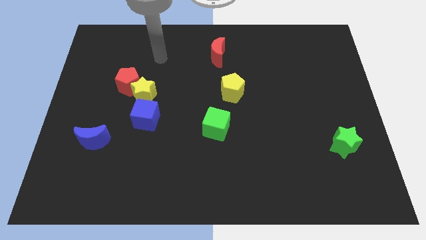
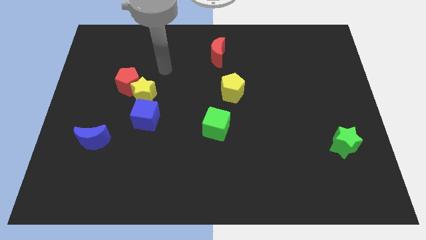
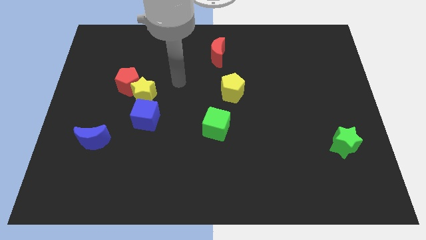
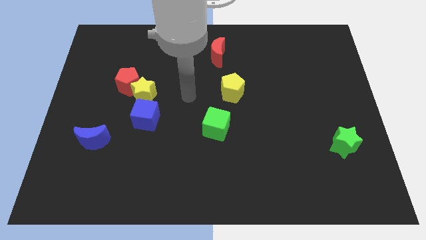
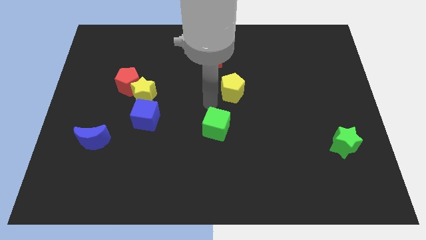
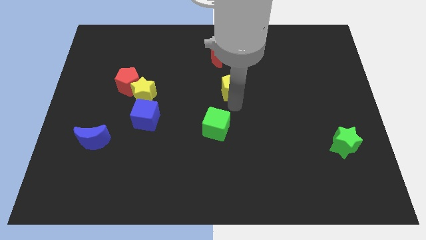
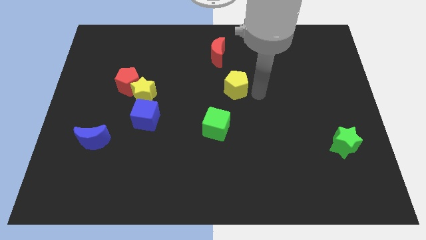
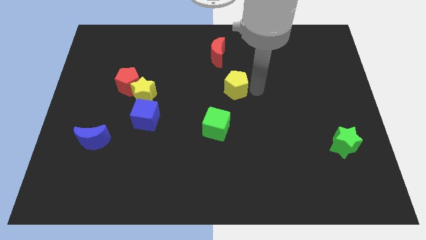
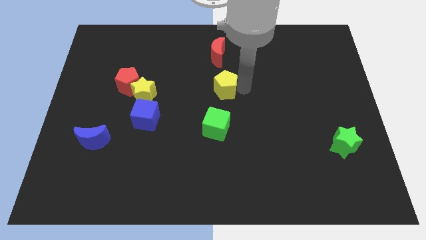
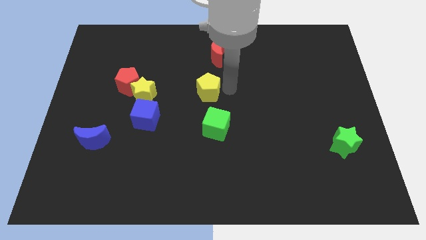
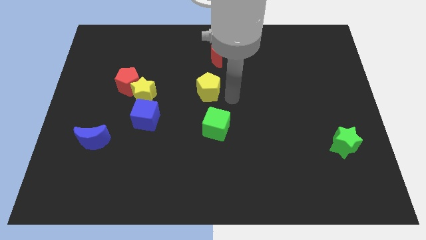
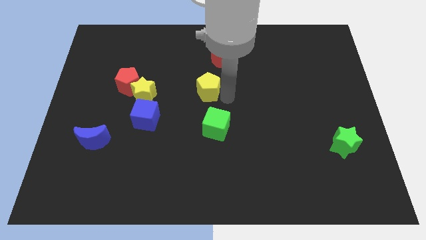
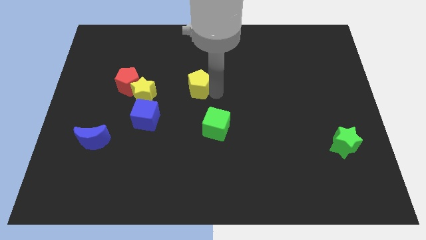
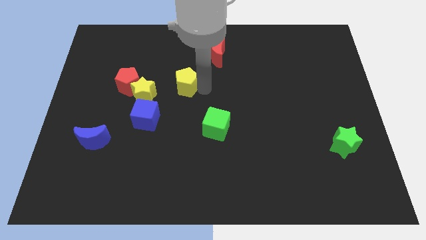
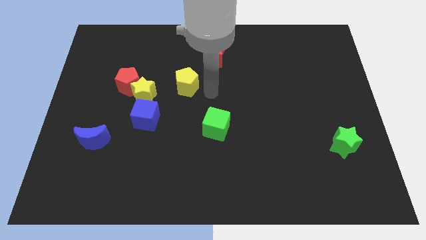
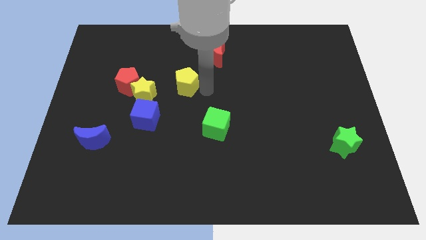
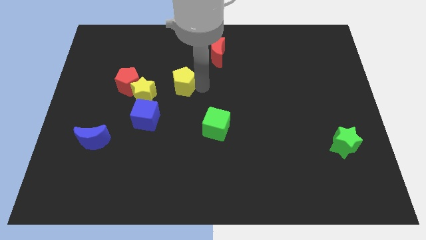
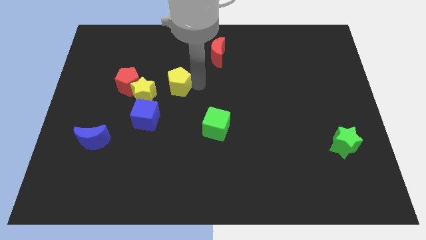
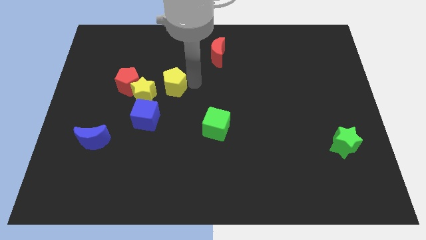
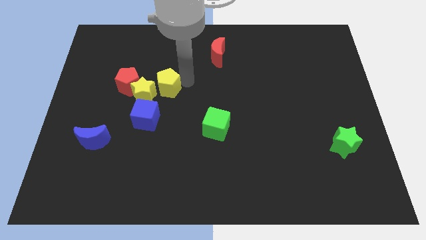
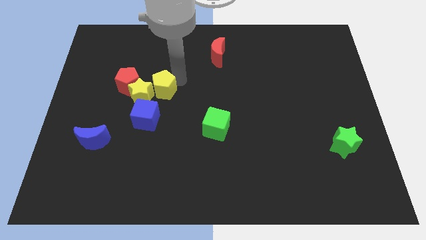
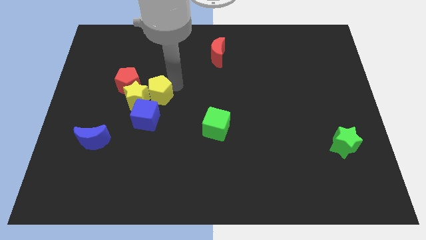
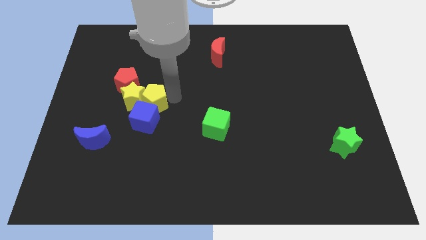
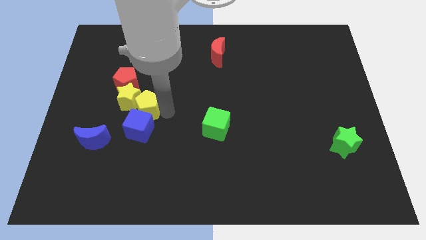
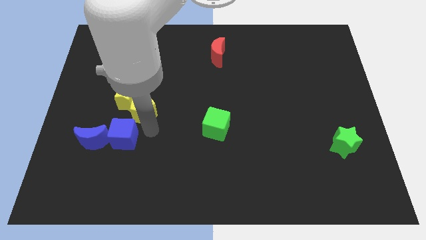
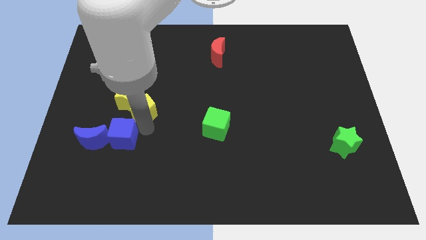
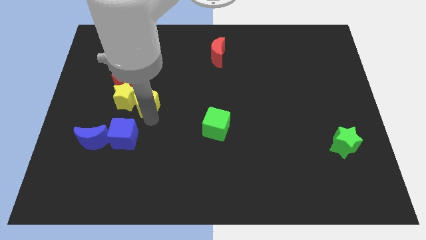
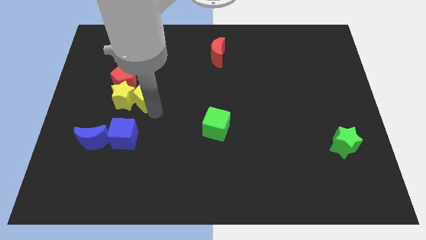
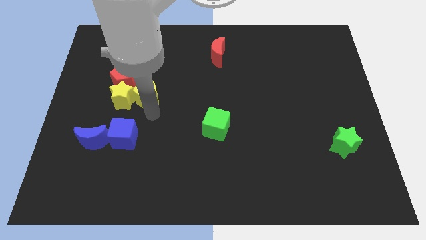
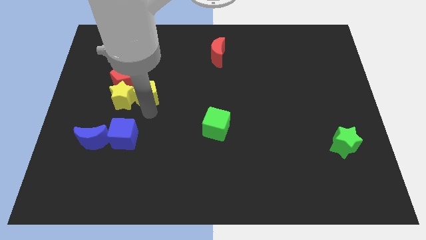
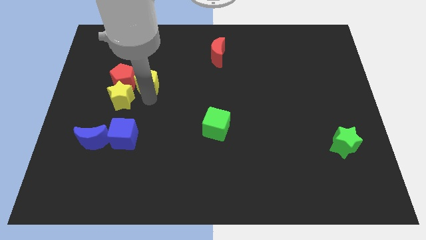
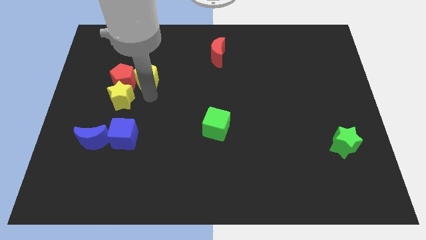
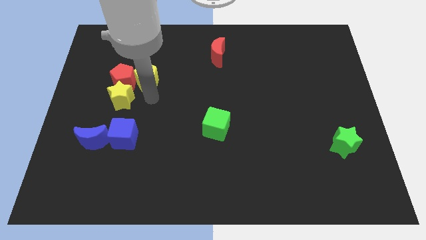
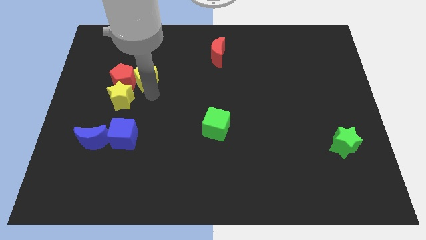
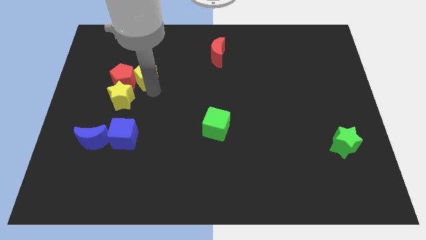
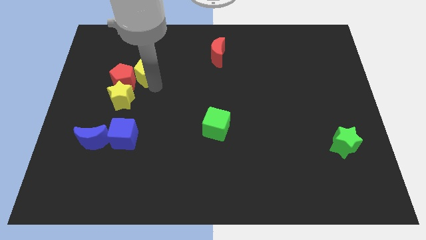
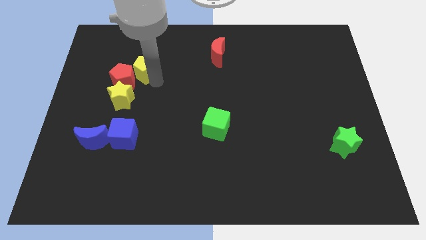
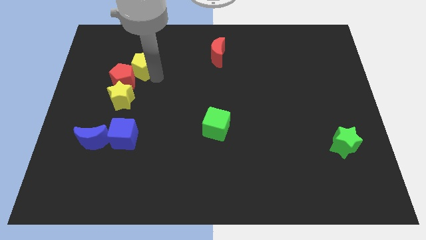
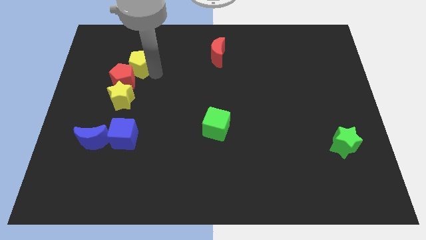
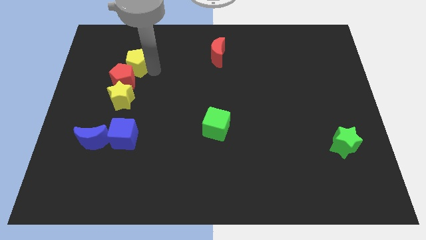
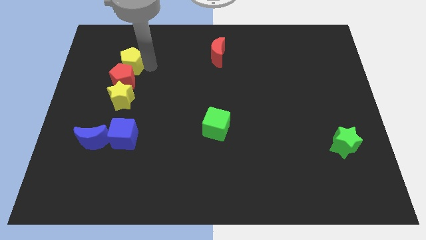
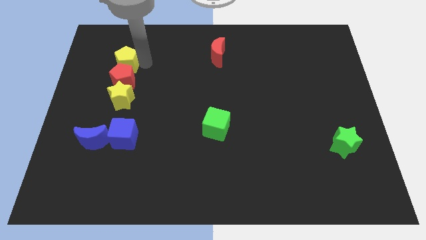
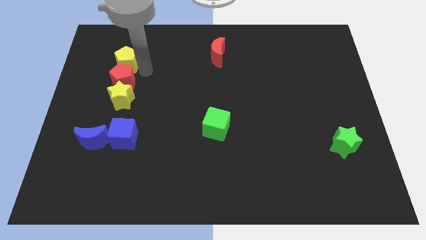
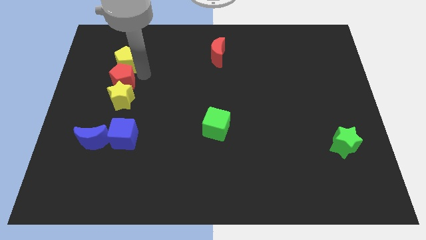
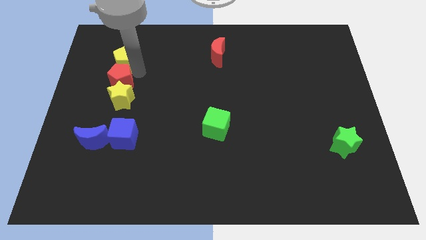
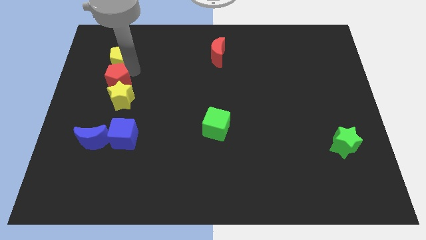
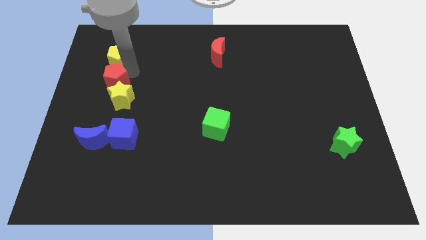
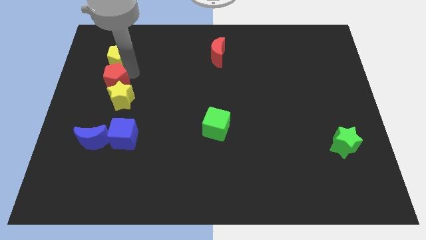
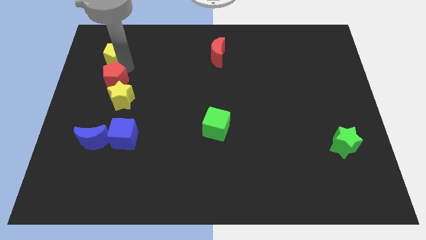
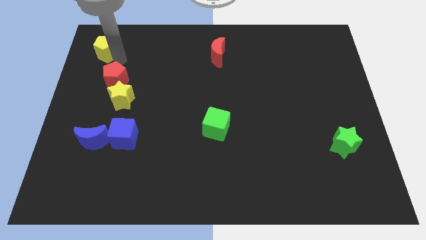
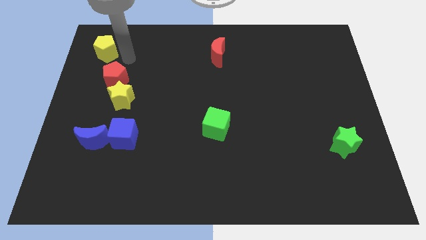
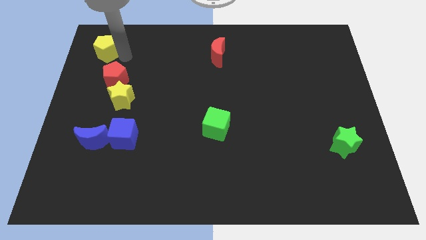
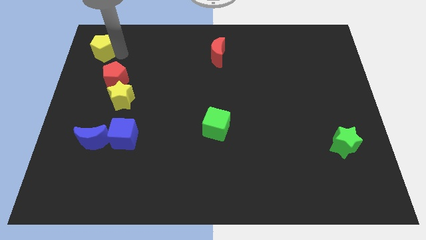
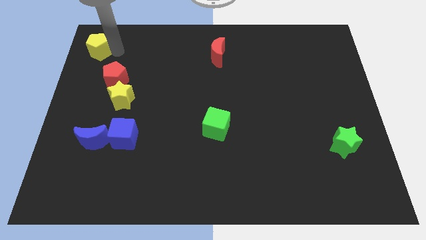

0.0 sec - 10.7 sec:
move the yellow pentagon to the top left

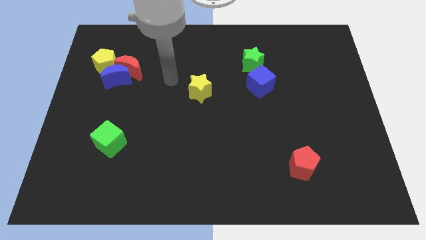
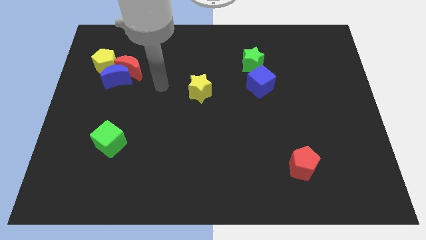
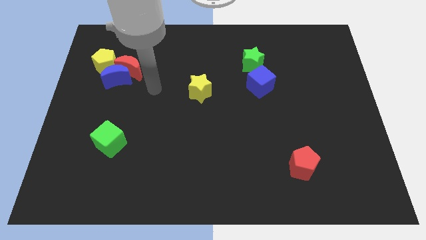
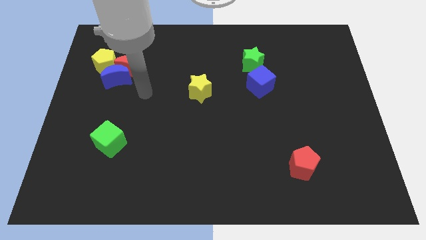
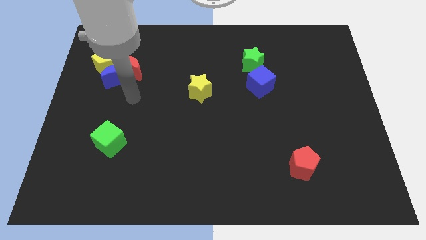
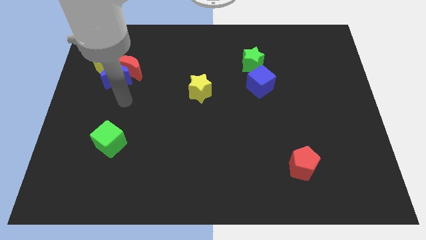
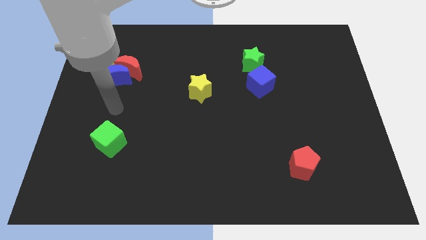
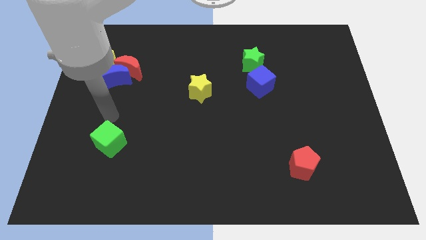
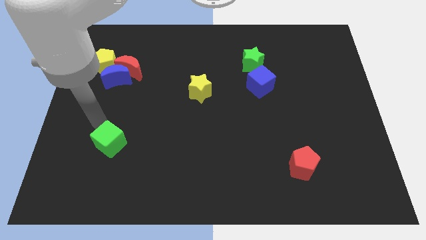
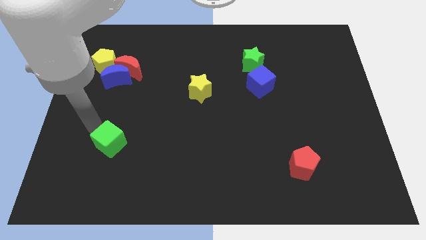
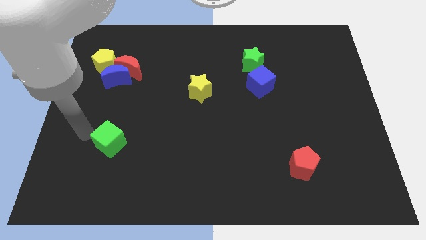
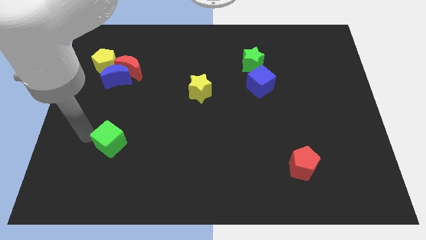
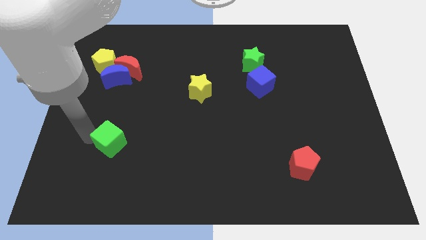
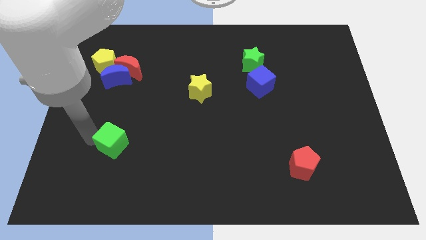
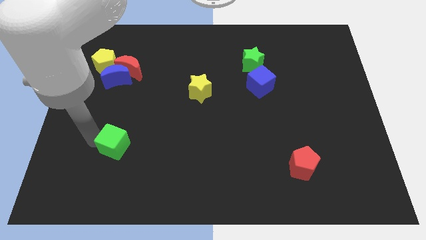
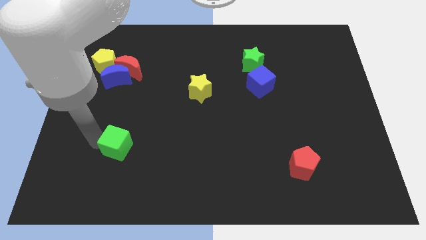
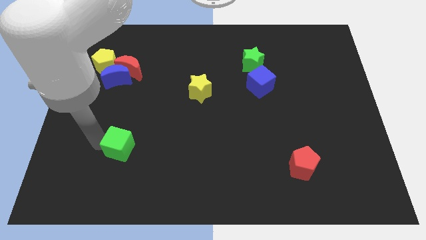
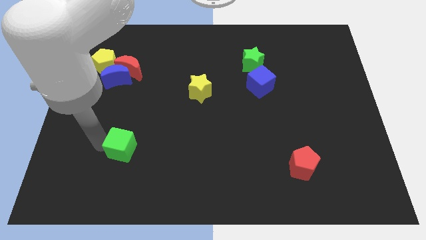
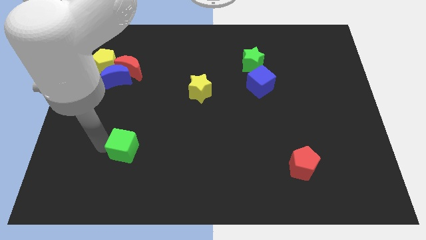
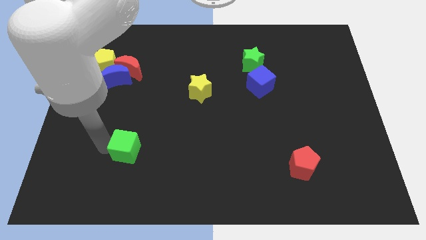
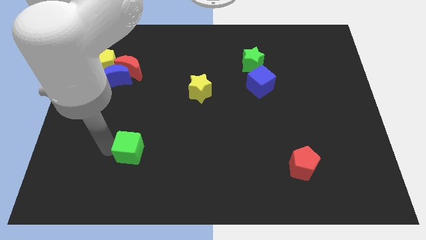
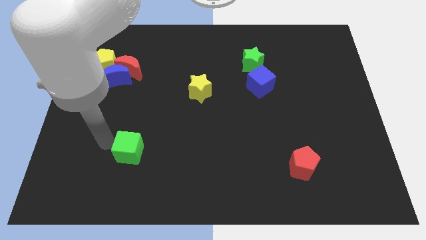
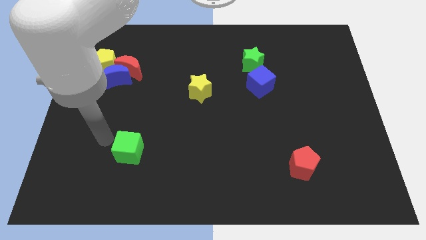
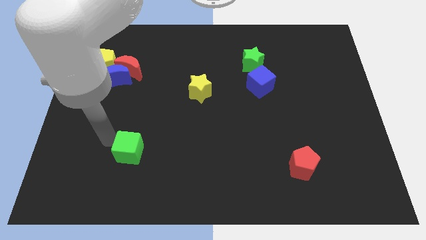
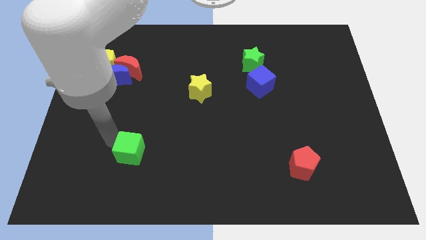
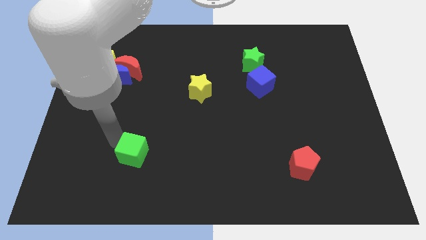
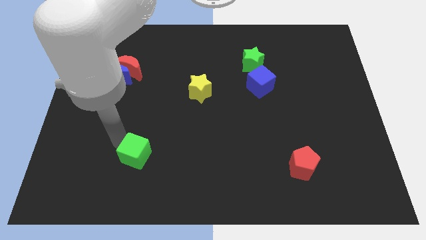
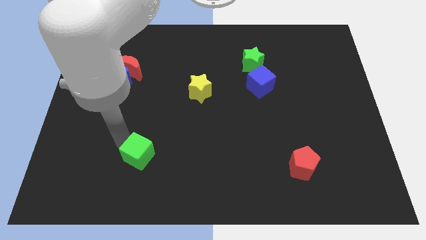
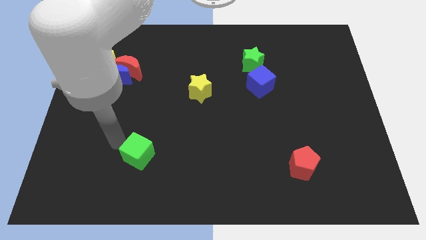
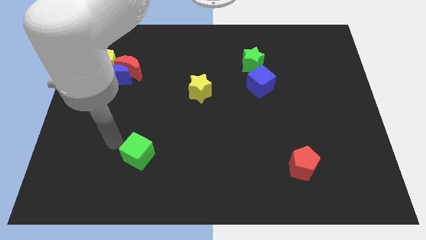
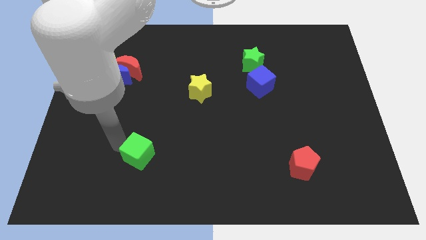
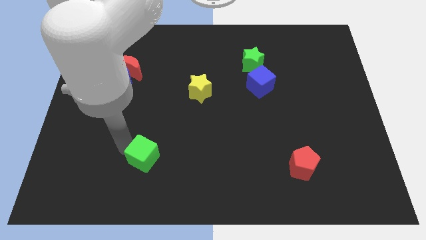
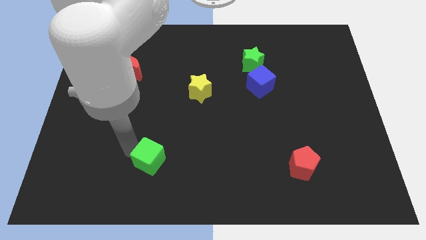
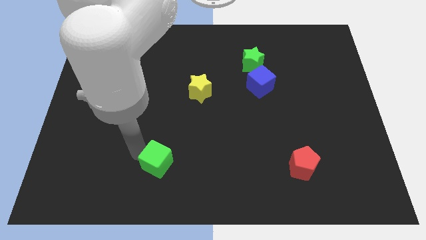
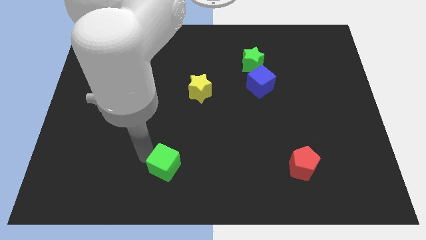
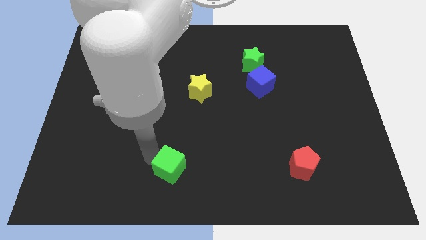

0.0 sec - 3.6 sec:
put the green cube to the bottom side
